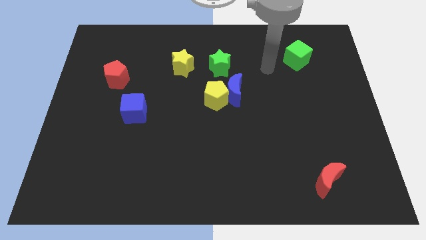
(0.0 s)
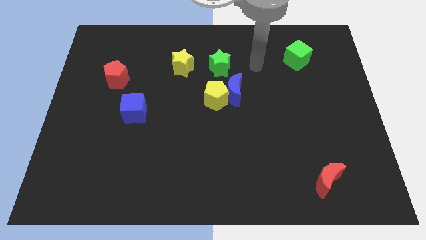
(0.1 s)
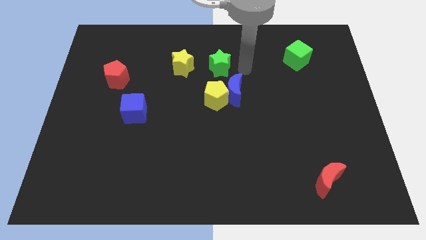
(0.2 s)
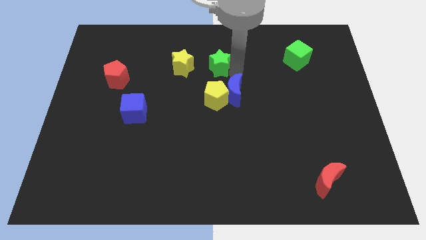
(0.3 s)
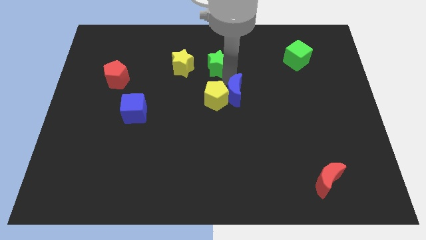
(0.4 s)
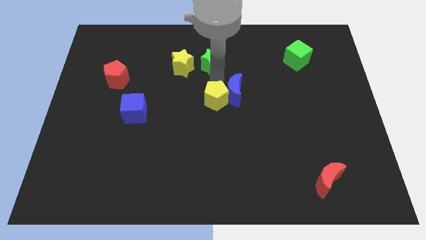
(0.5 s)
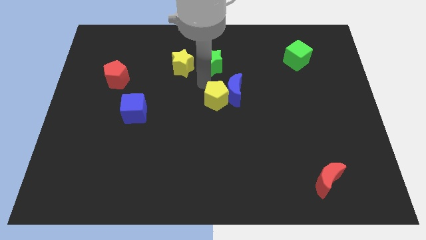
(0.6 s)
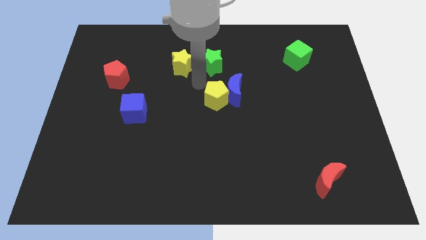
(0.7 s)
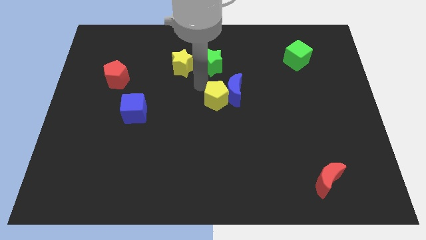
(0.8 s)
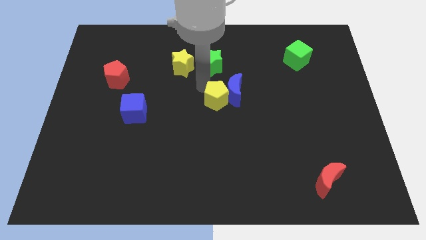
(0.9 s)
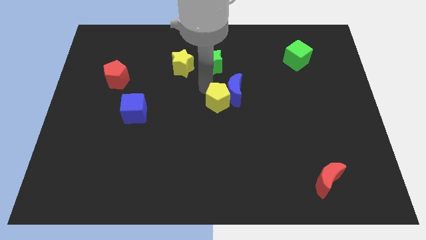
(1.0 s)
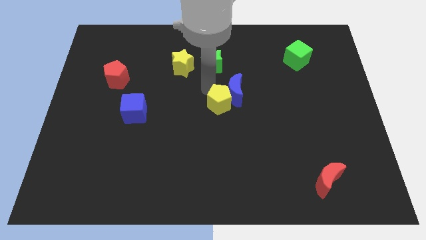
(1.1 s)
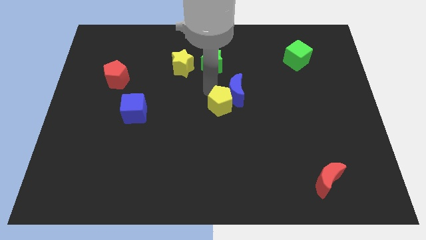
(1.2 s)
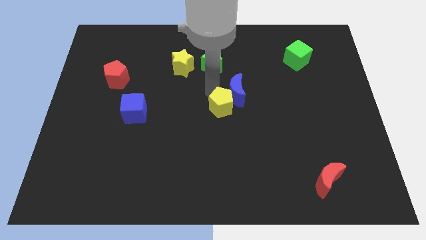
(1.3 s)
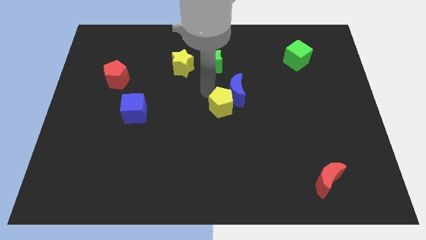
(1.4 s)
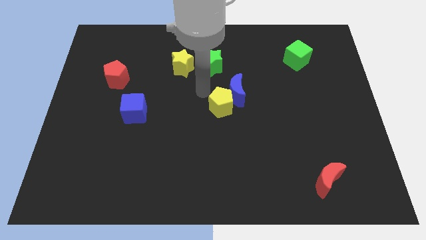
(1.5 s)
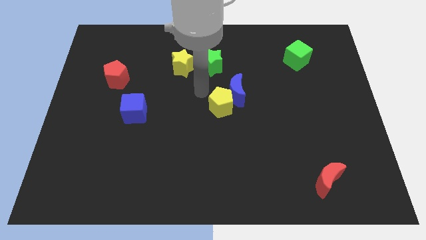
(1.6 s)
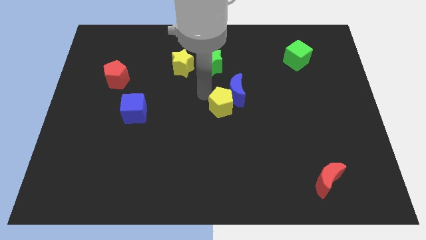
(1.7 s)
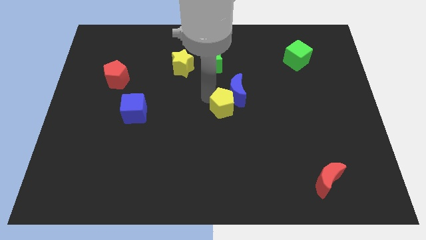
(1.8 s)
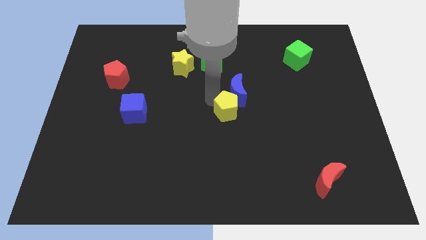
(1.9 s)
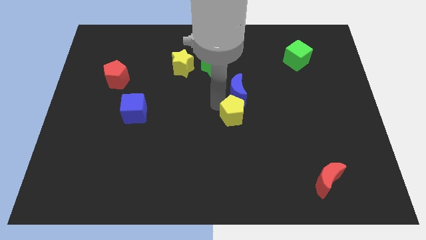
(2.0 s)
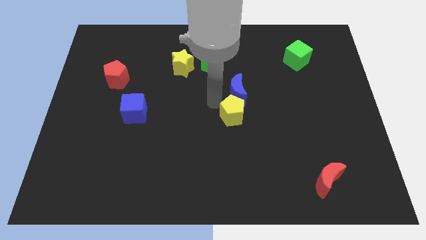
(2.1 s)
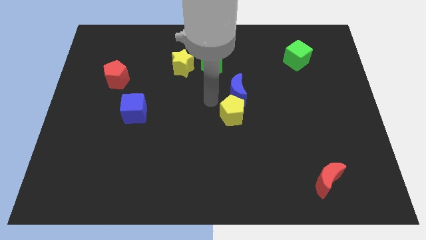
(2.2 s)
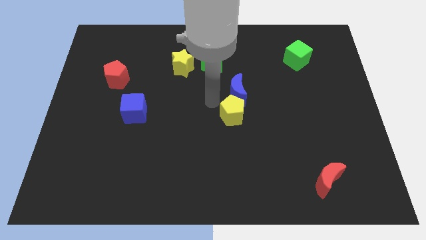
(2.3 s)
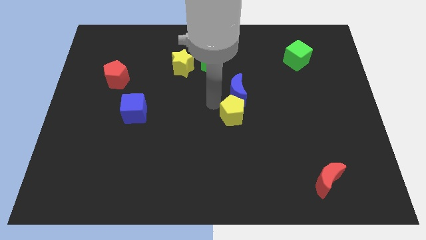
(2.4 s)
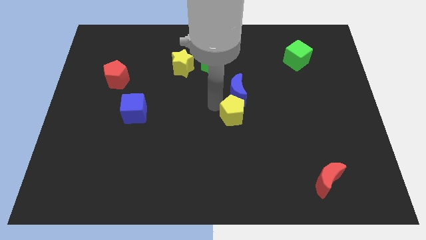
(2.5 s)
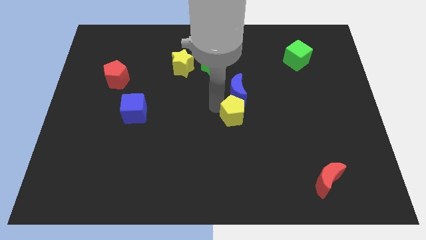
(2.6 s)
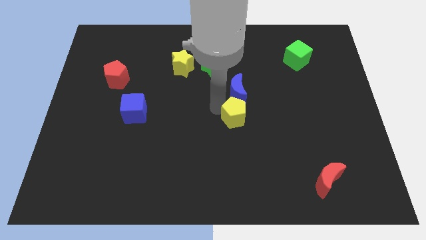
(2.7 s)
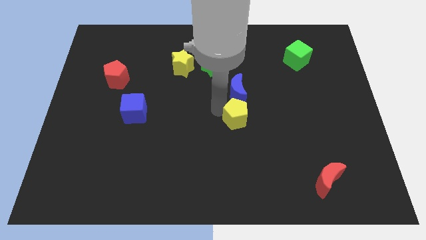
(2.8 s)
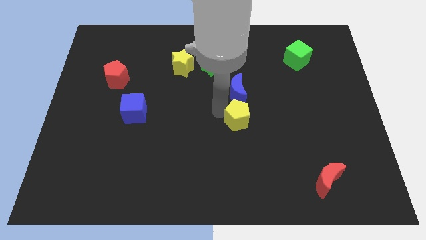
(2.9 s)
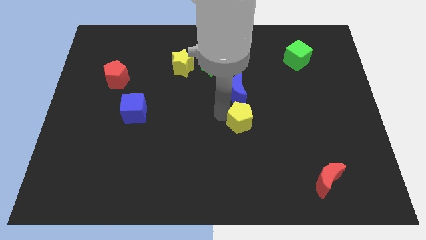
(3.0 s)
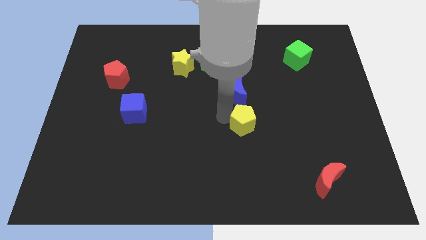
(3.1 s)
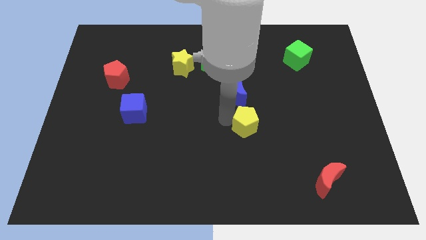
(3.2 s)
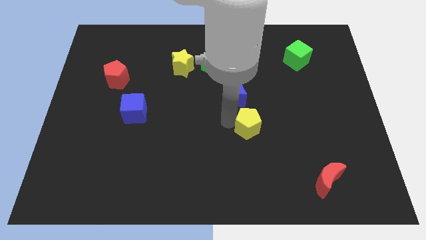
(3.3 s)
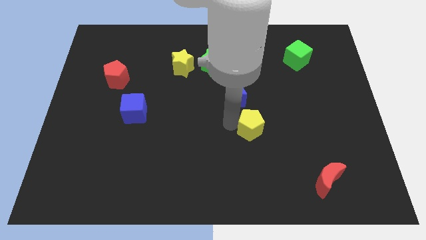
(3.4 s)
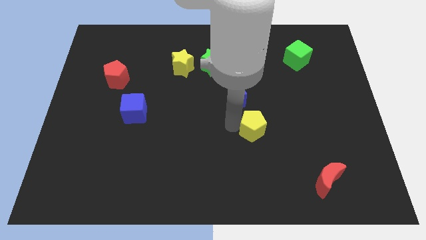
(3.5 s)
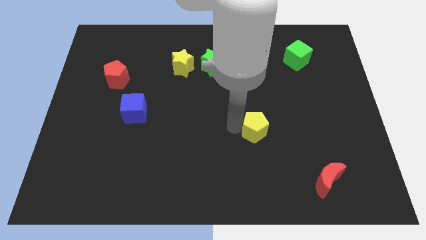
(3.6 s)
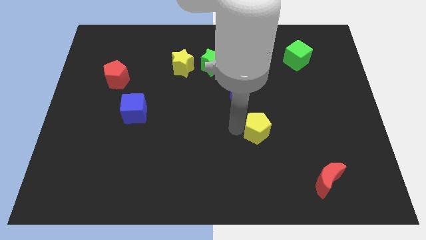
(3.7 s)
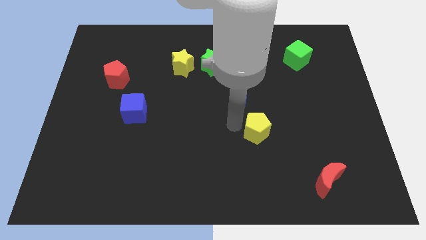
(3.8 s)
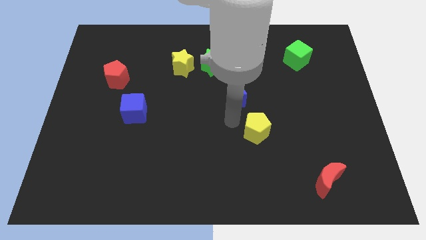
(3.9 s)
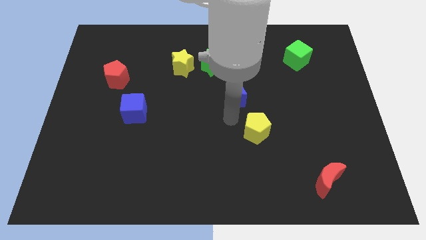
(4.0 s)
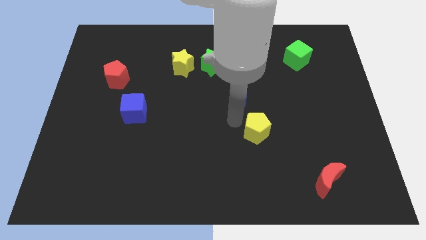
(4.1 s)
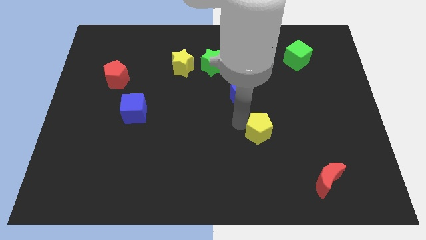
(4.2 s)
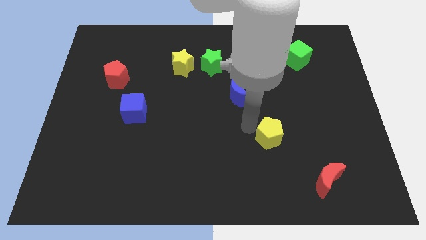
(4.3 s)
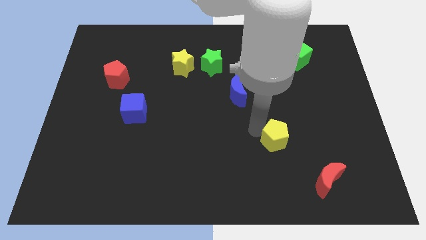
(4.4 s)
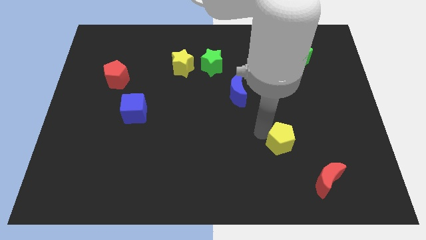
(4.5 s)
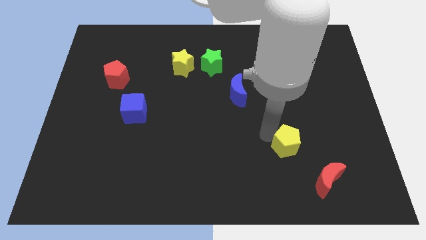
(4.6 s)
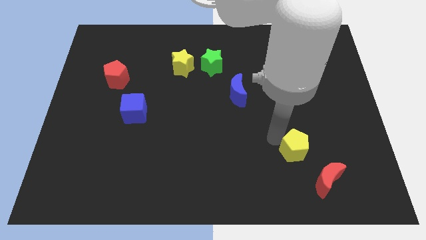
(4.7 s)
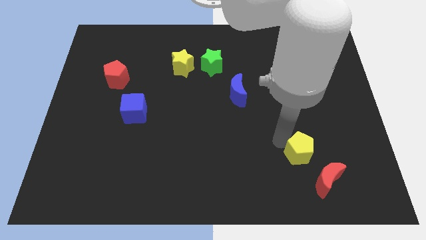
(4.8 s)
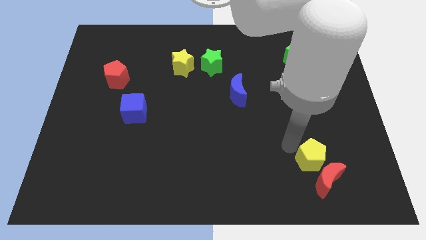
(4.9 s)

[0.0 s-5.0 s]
put the yellow pentagon towards the red moon

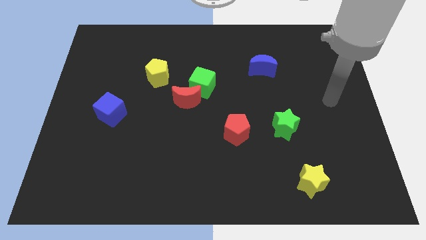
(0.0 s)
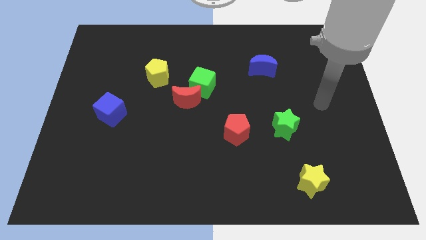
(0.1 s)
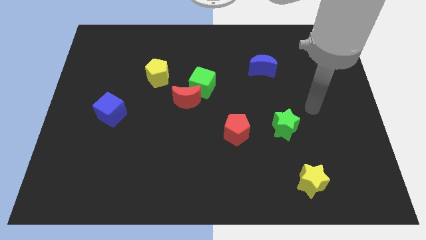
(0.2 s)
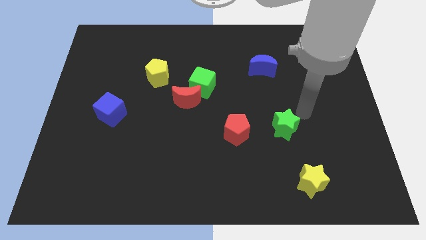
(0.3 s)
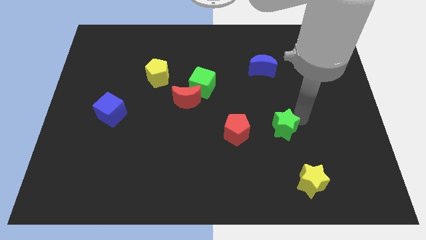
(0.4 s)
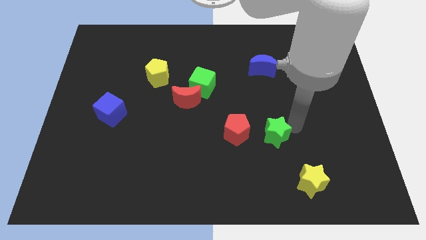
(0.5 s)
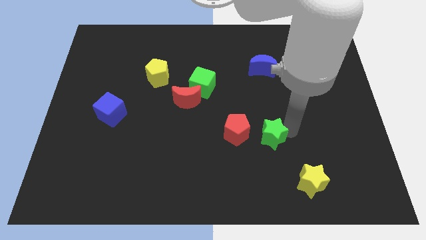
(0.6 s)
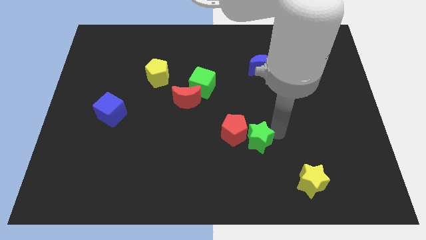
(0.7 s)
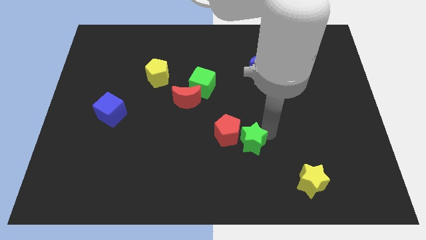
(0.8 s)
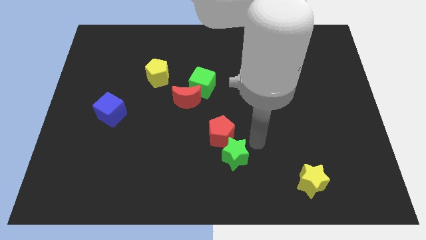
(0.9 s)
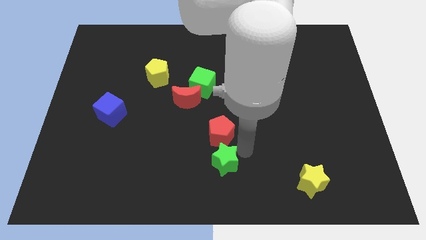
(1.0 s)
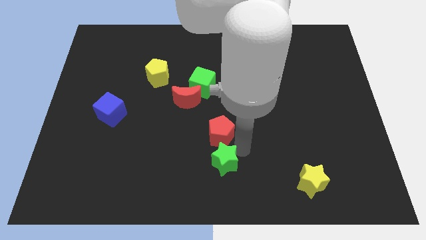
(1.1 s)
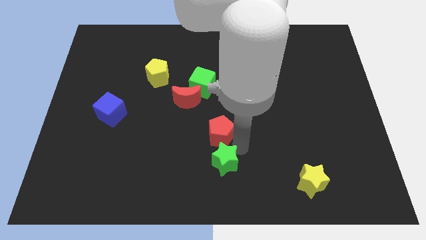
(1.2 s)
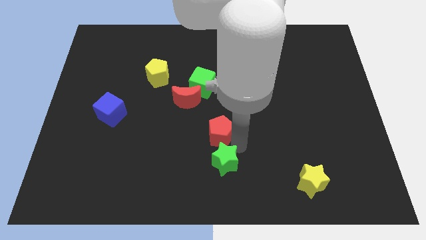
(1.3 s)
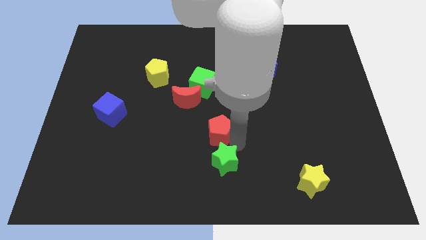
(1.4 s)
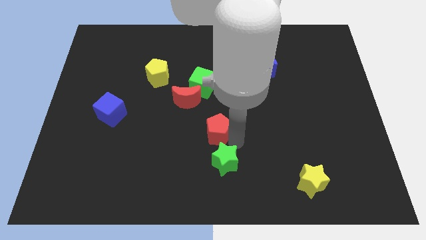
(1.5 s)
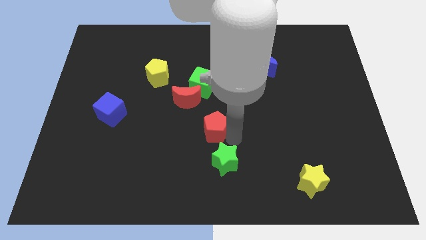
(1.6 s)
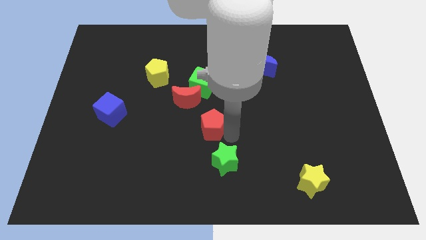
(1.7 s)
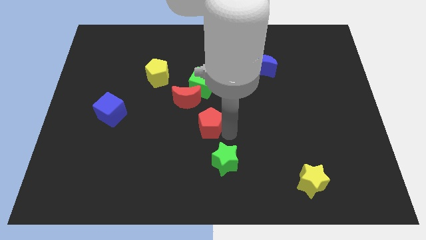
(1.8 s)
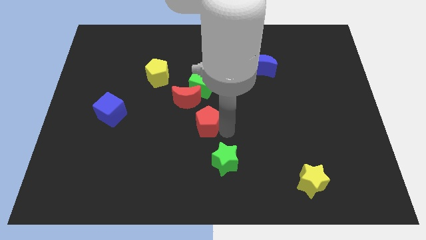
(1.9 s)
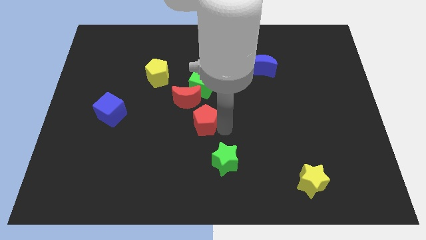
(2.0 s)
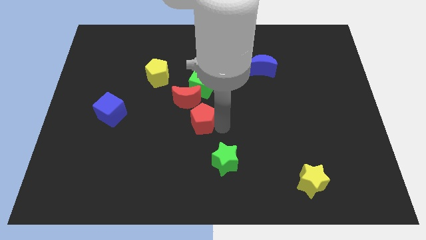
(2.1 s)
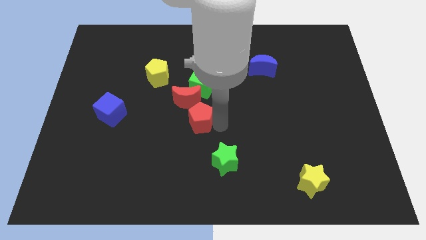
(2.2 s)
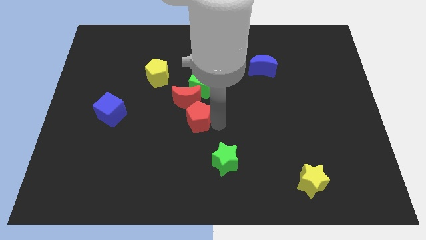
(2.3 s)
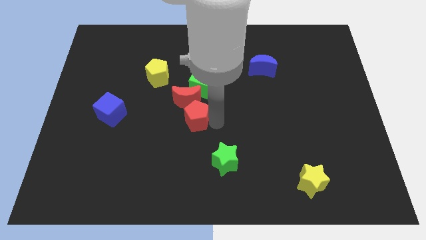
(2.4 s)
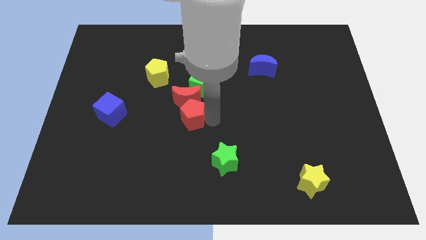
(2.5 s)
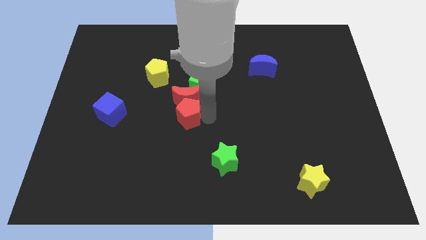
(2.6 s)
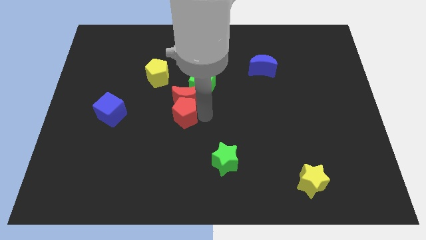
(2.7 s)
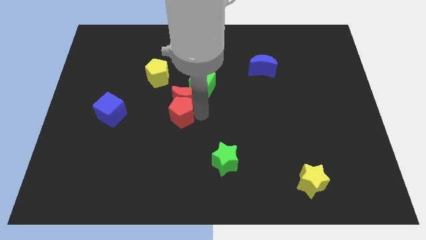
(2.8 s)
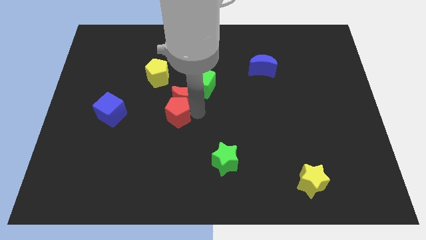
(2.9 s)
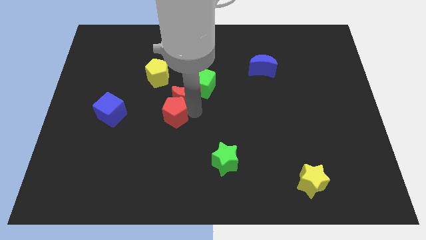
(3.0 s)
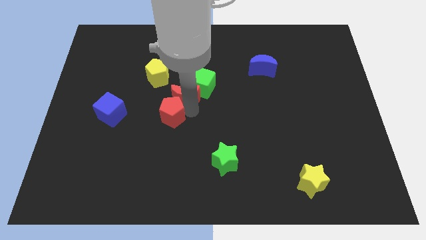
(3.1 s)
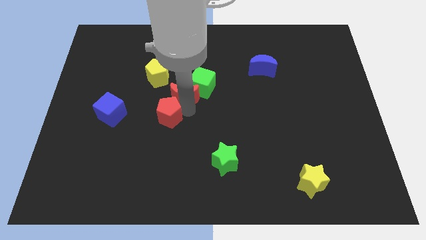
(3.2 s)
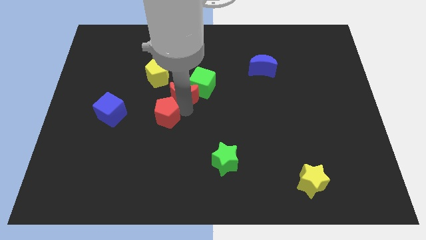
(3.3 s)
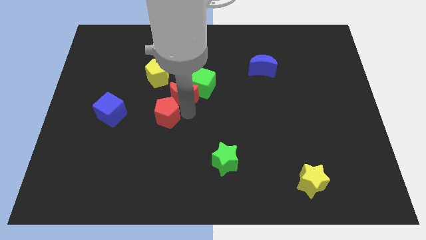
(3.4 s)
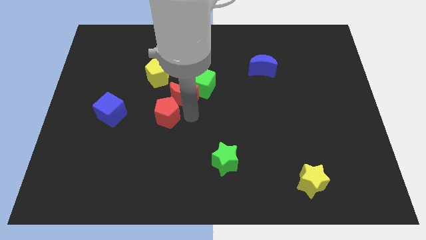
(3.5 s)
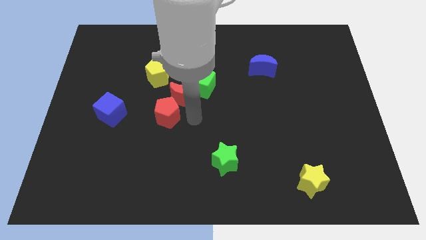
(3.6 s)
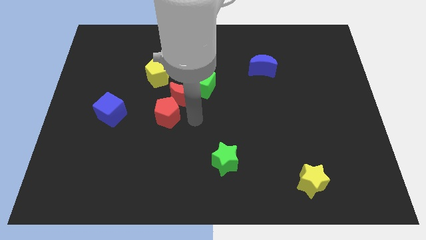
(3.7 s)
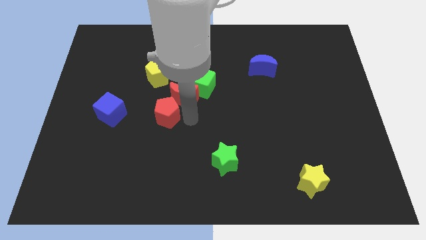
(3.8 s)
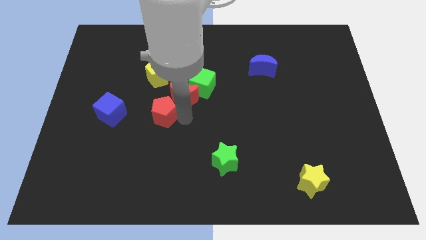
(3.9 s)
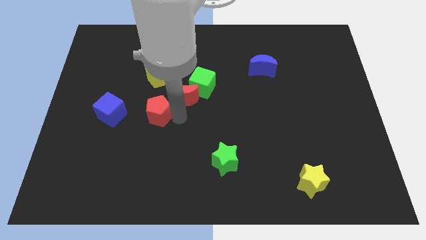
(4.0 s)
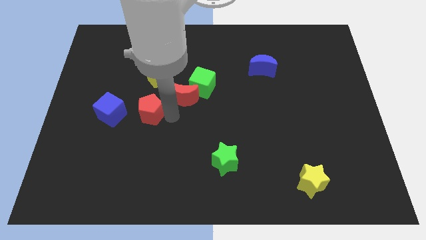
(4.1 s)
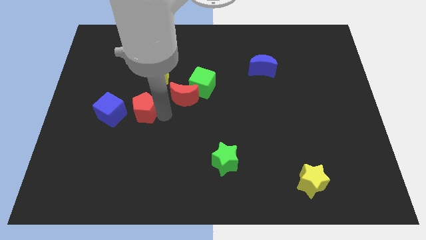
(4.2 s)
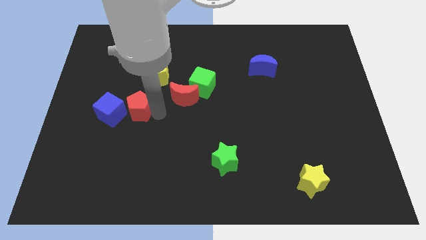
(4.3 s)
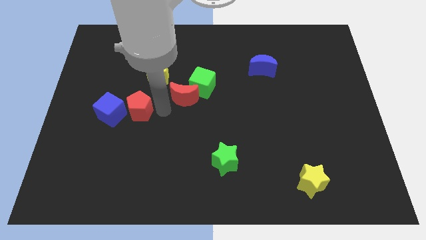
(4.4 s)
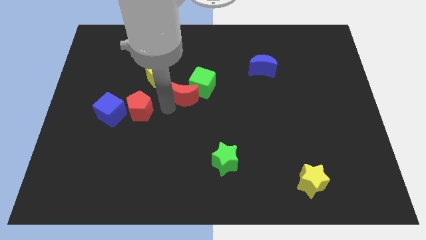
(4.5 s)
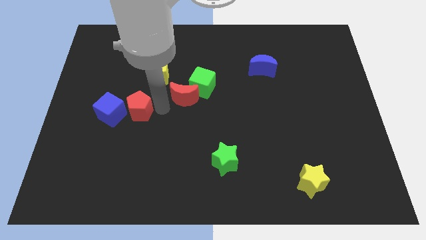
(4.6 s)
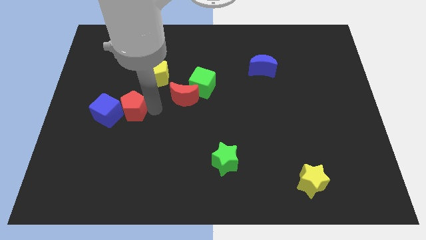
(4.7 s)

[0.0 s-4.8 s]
put the red pentagon towards the blue cube
